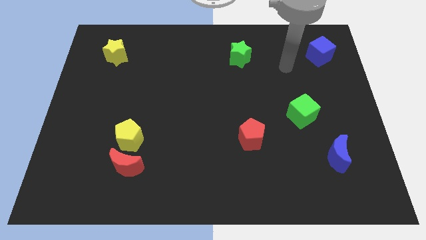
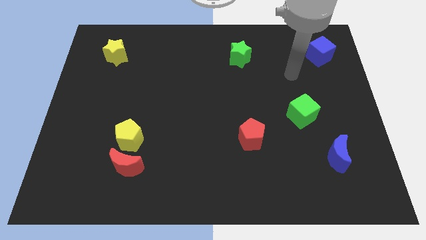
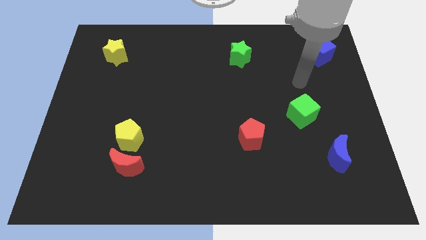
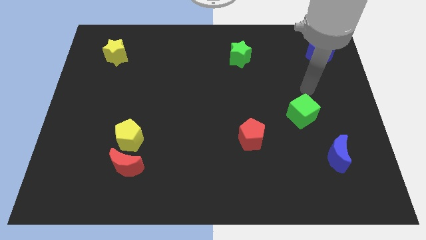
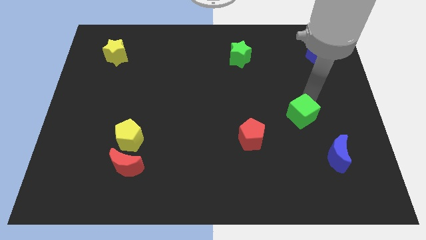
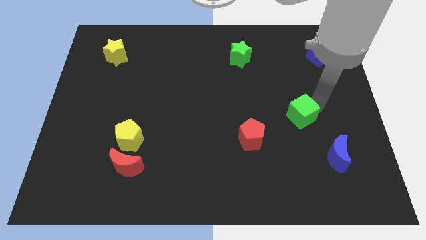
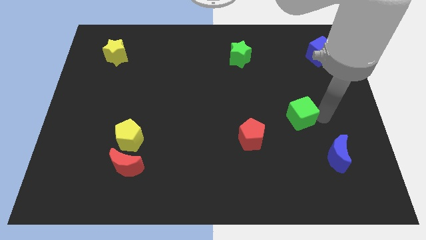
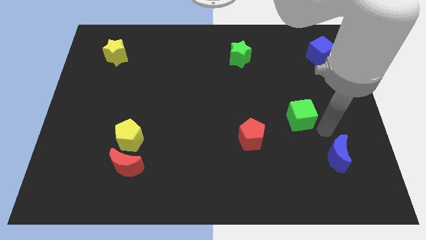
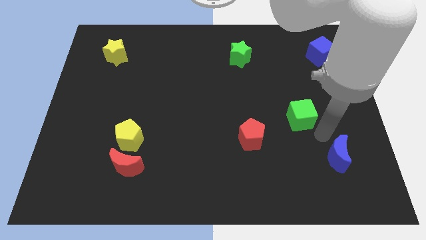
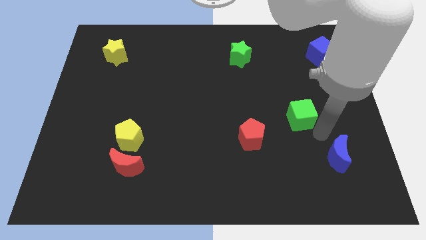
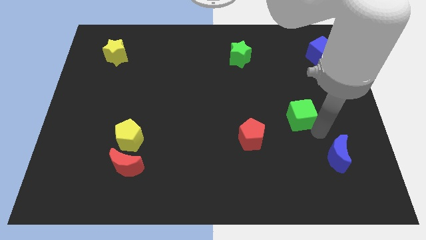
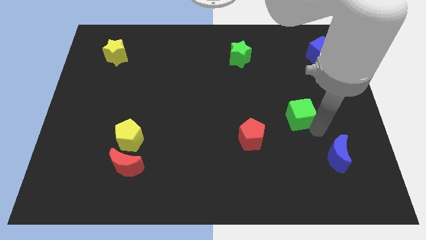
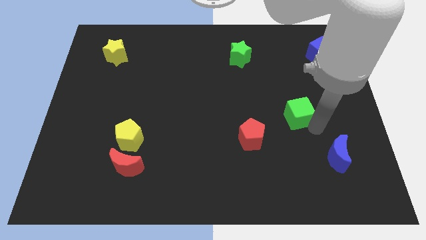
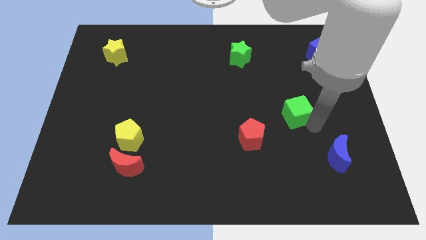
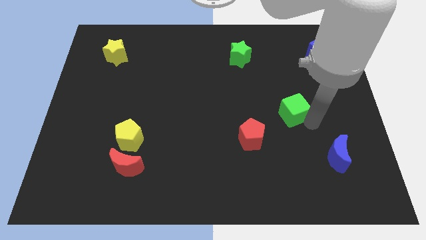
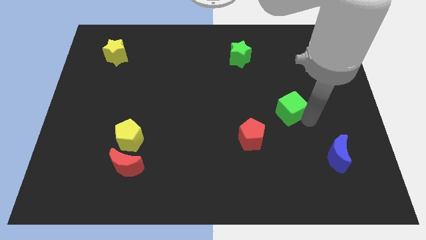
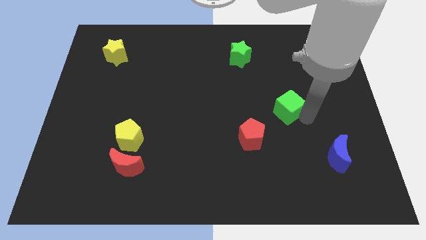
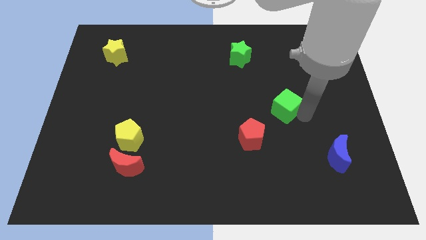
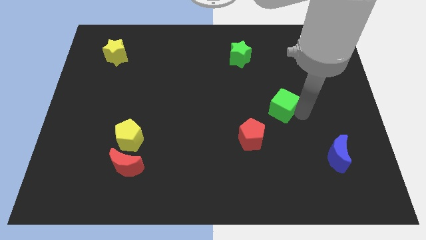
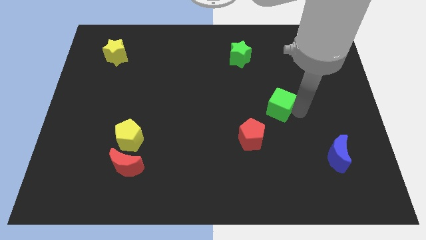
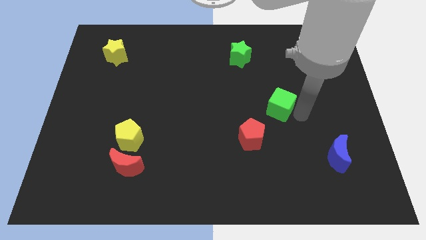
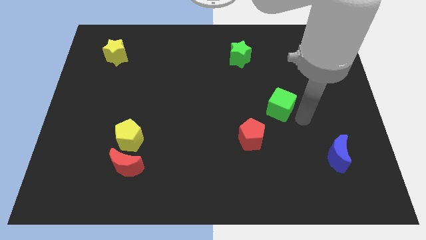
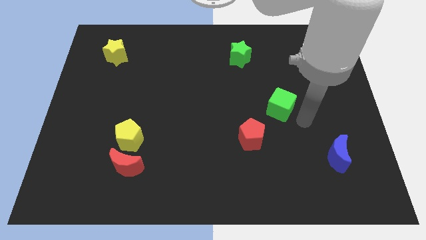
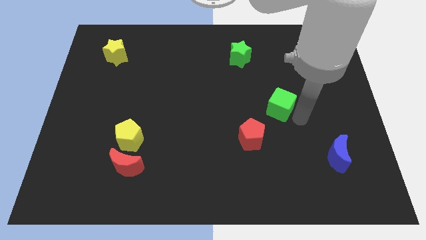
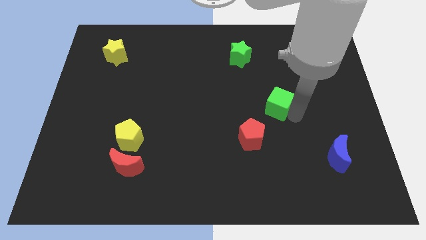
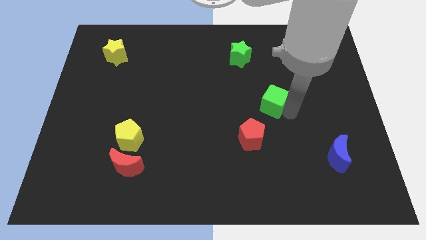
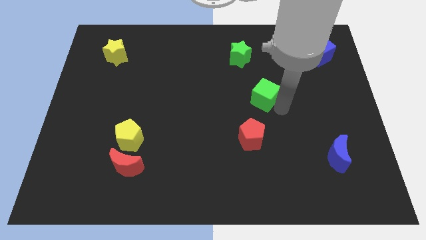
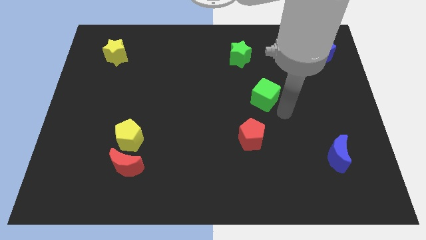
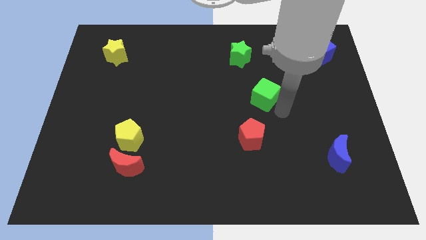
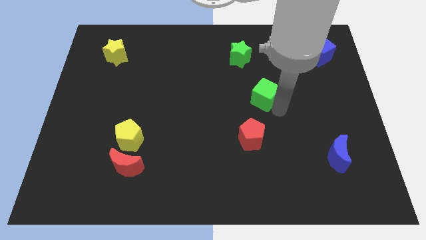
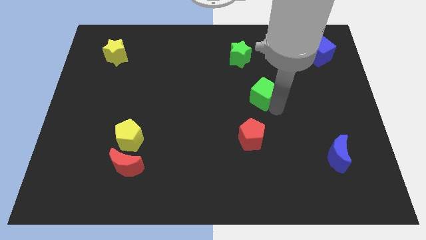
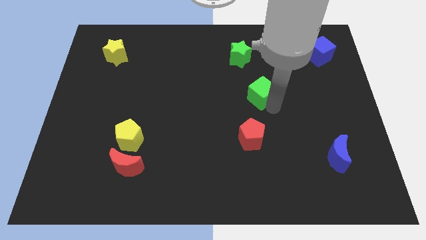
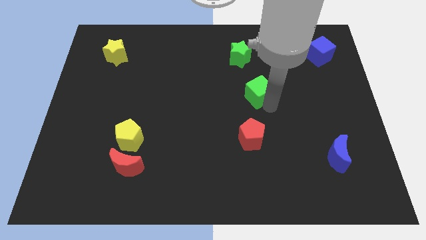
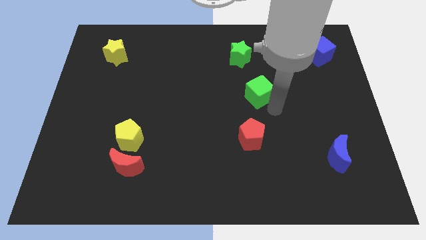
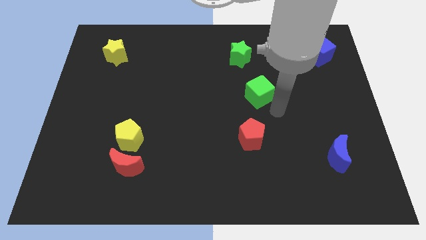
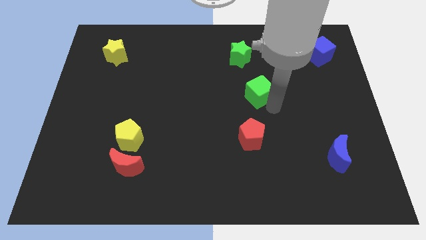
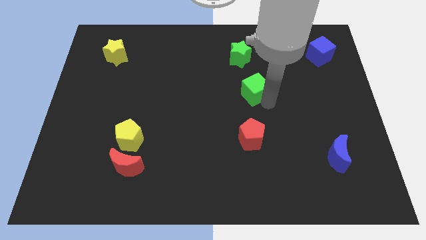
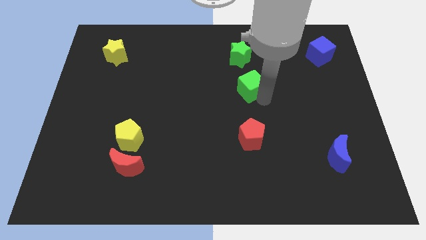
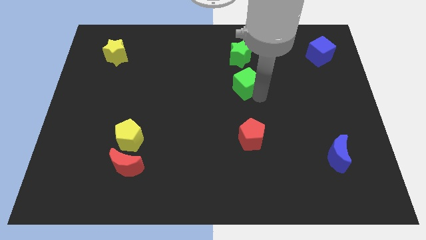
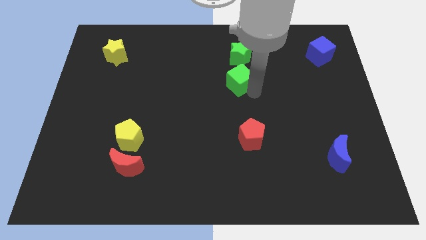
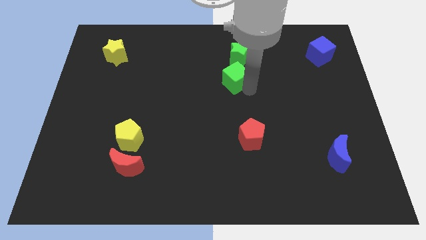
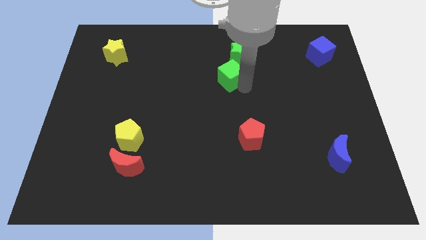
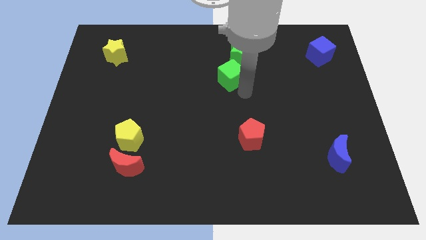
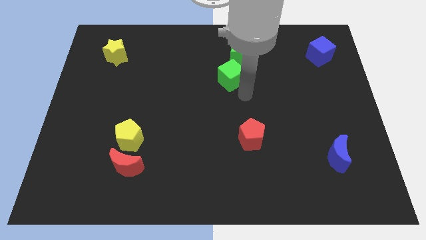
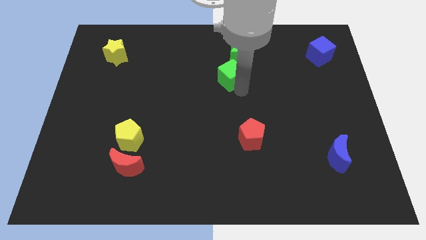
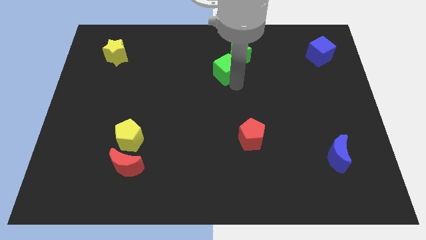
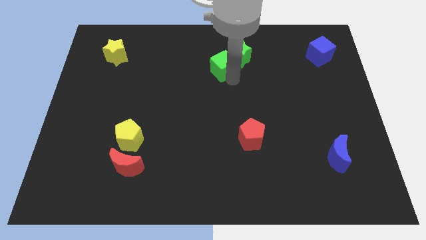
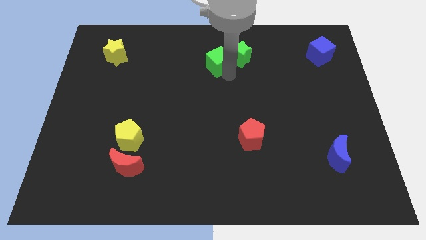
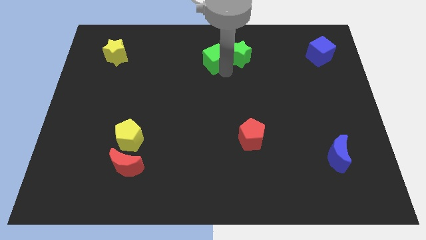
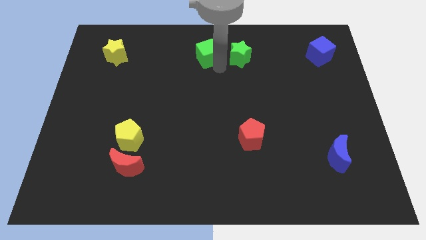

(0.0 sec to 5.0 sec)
put the green cube to the top side
